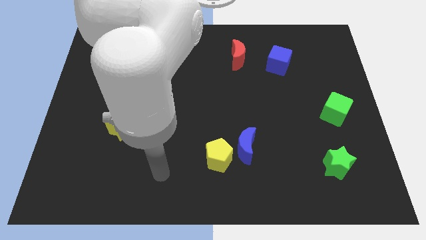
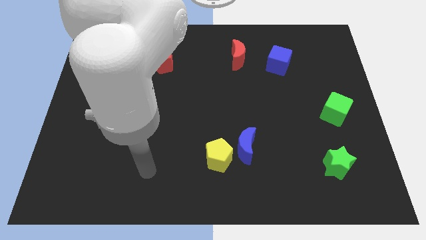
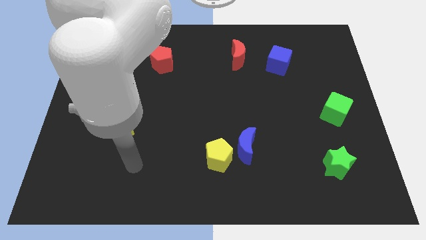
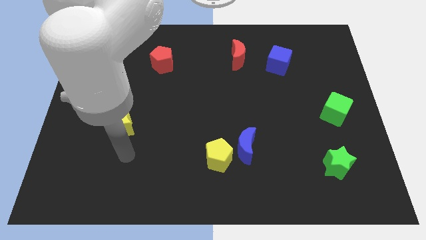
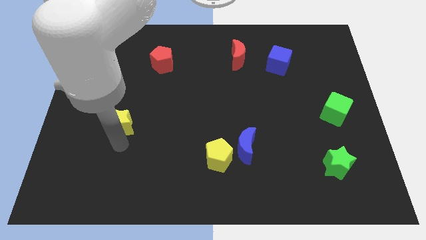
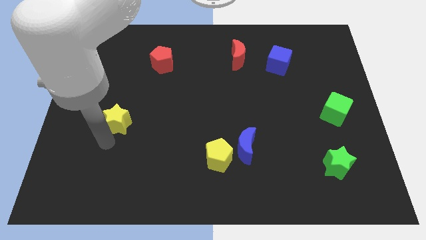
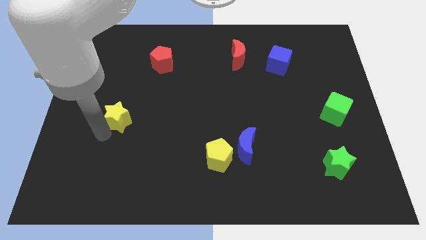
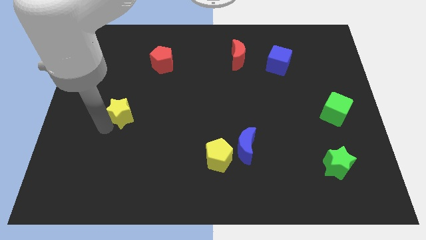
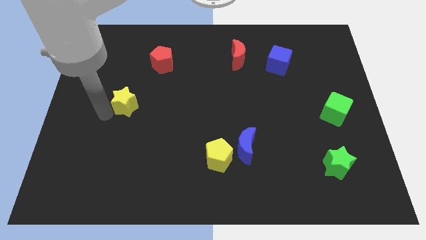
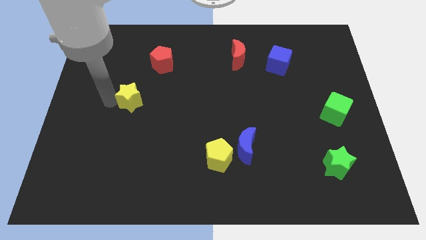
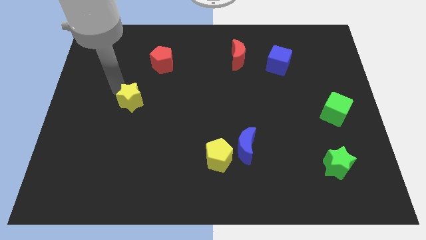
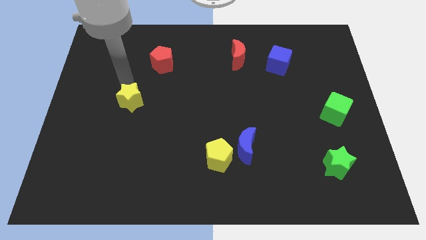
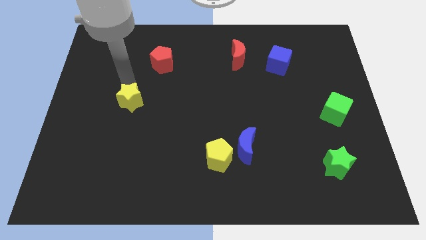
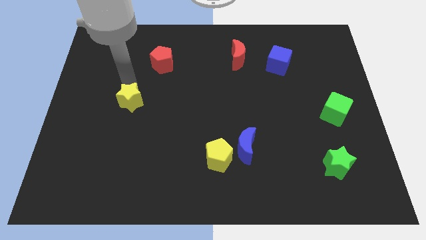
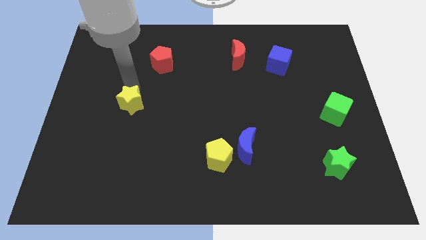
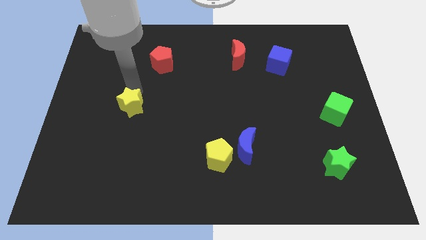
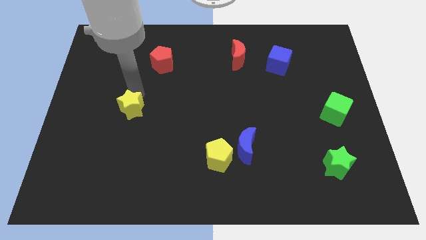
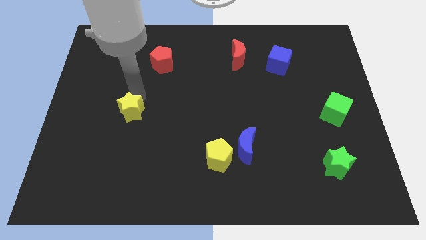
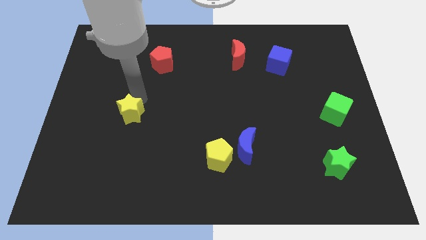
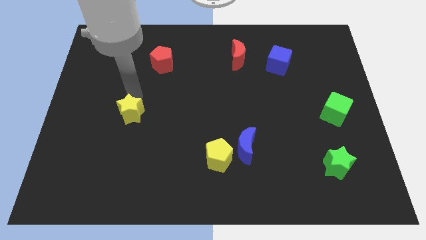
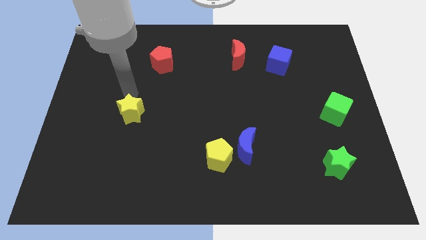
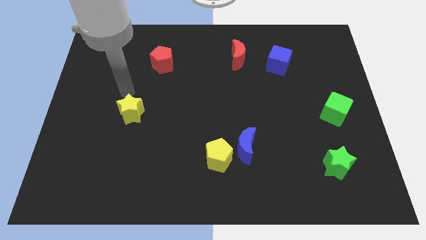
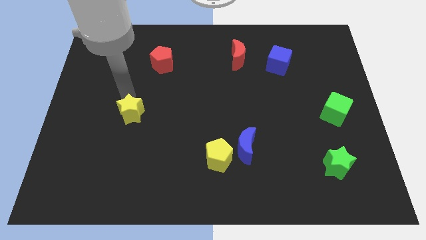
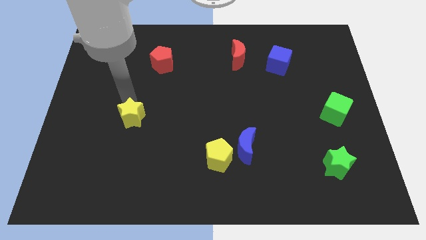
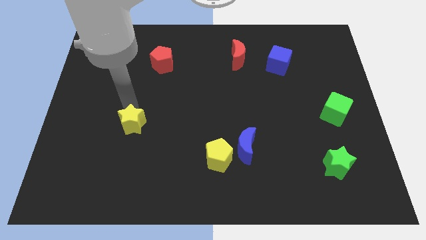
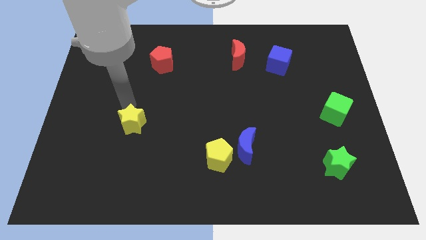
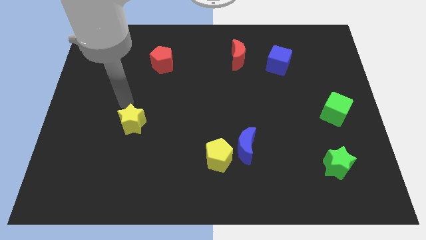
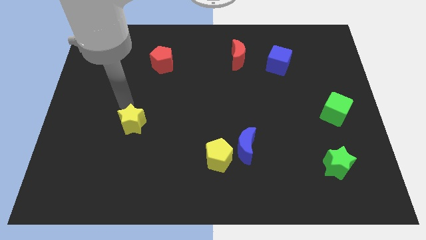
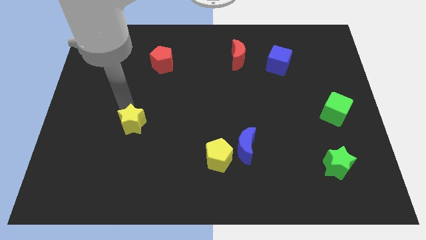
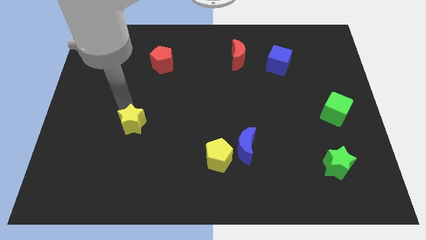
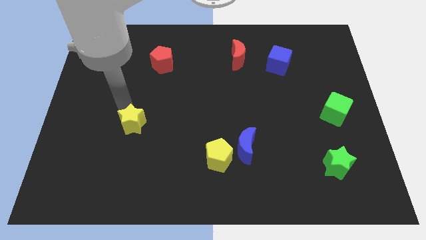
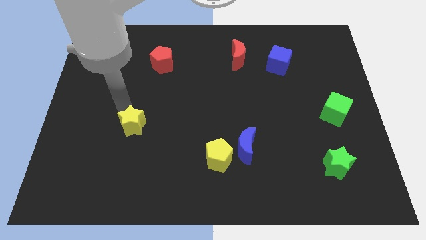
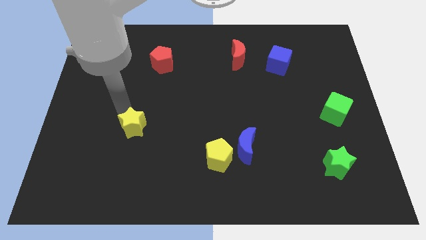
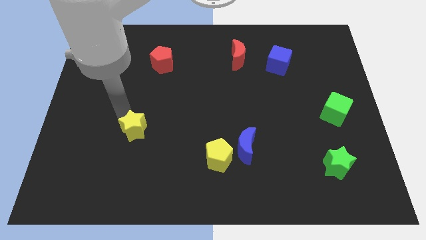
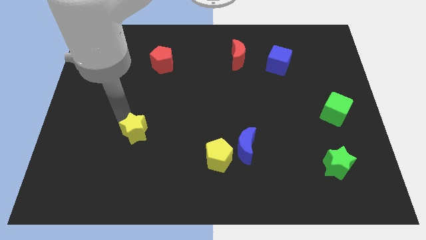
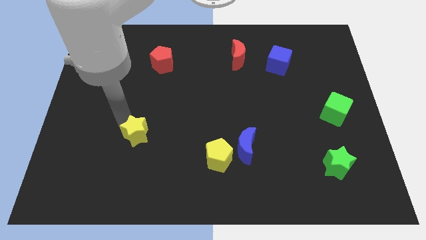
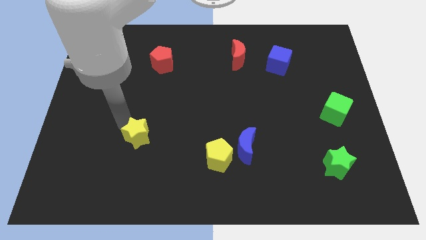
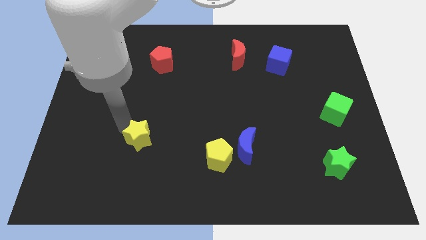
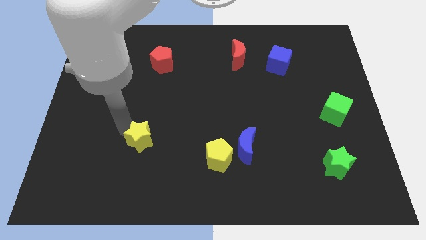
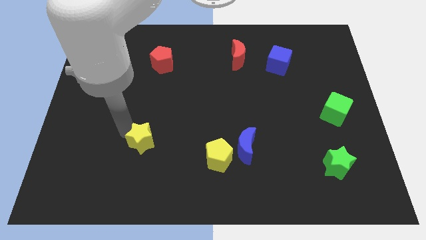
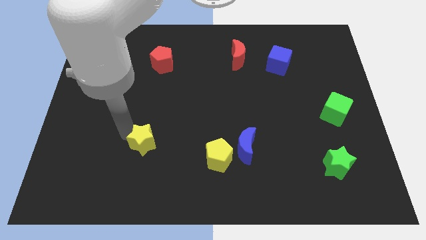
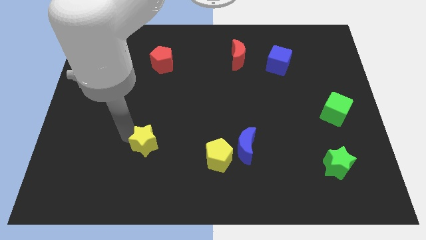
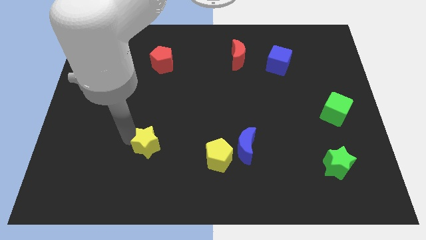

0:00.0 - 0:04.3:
move the yellow star diagonally down and right slightly

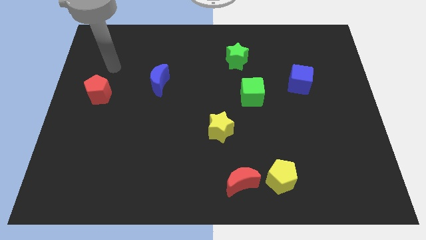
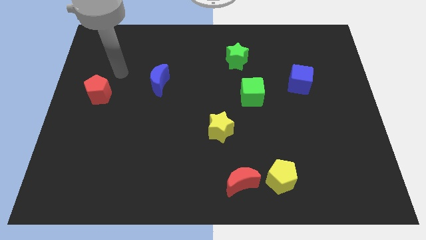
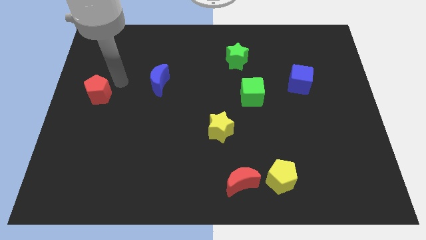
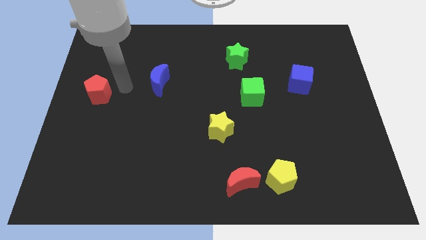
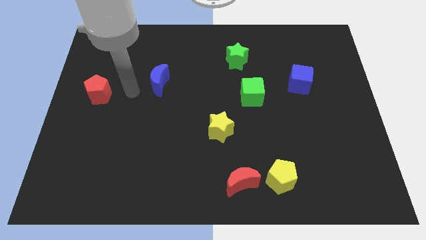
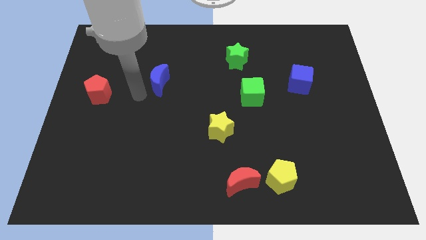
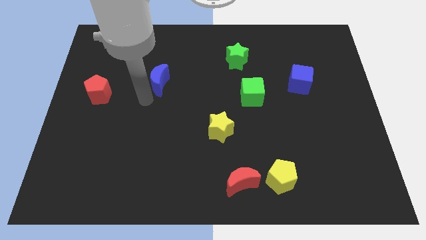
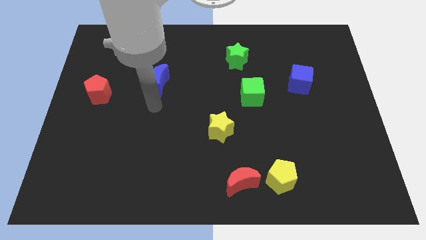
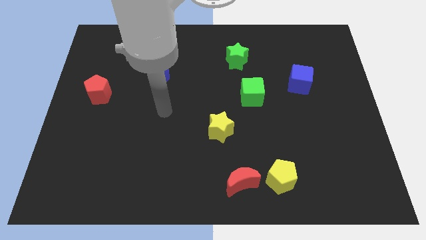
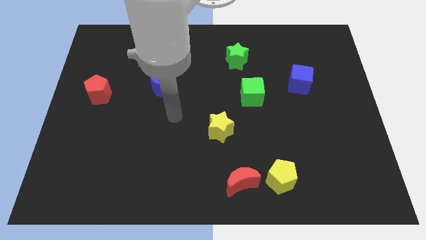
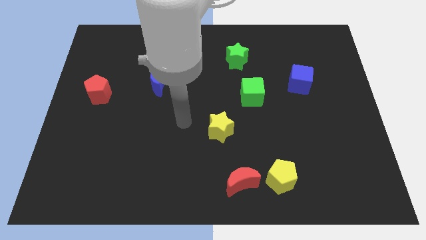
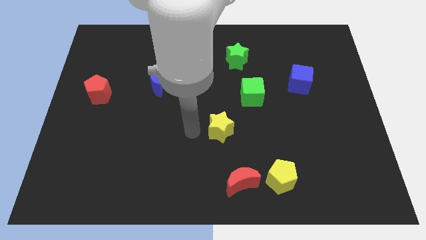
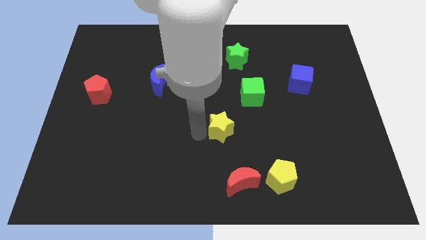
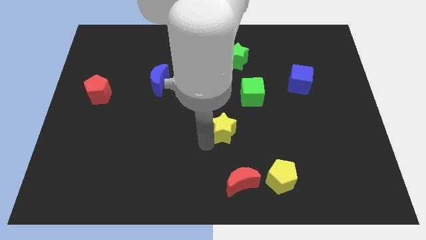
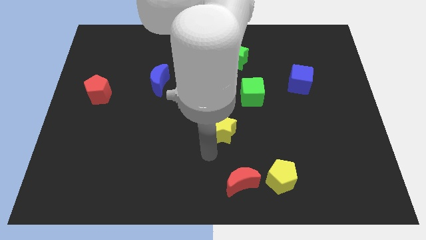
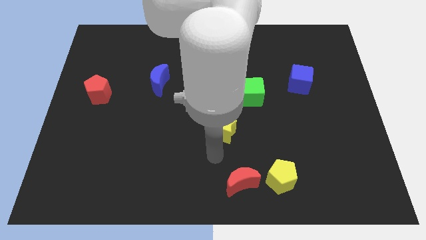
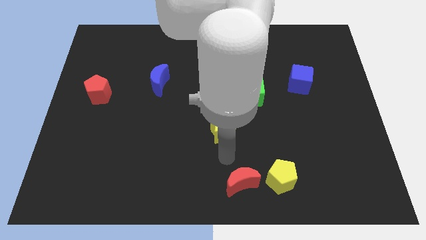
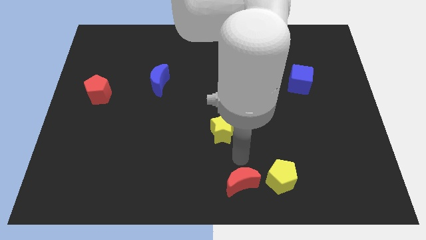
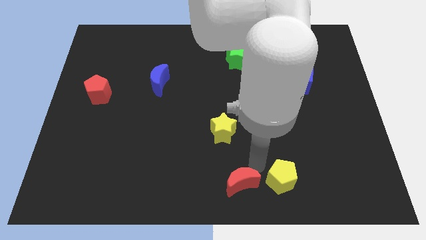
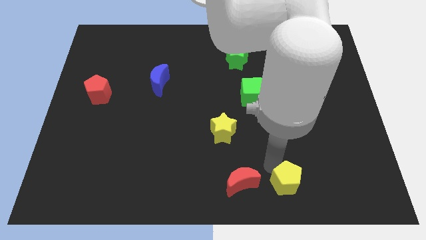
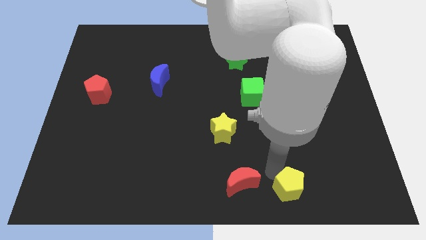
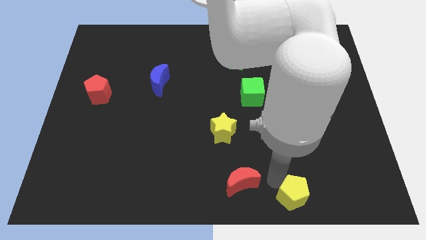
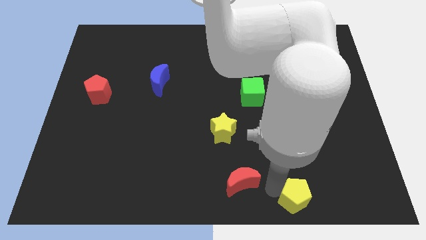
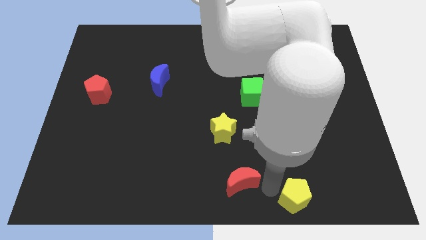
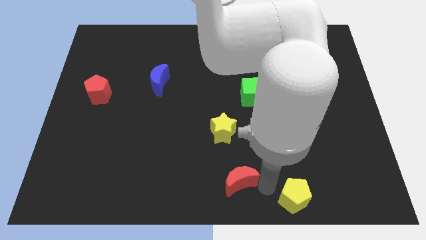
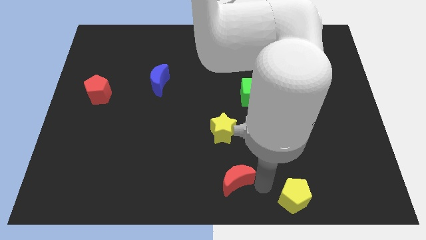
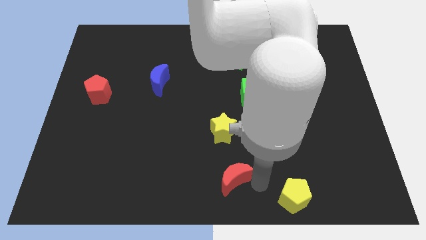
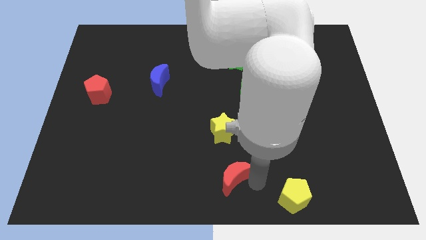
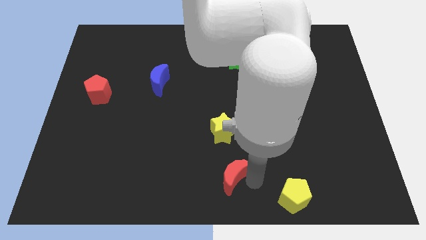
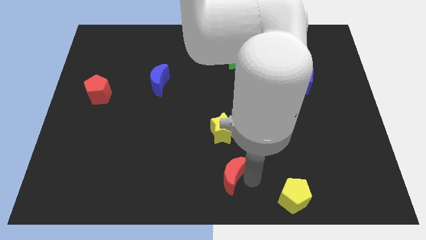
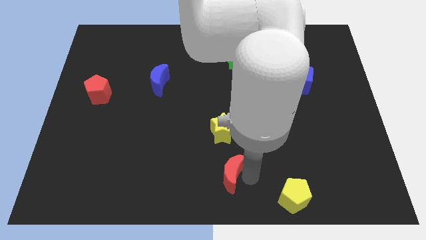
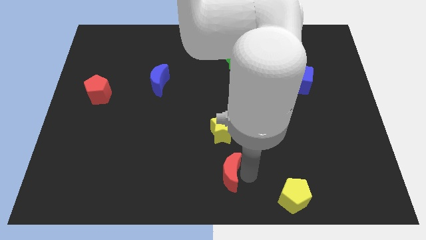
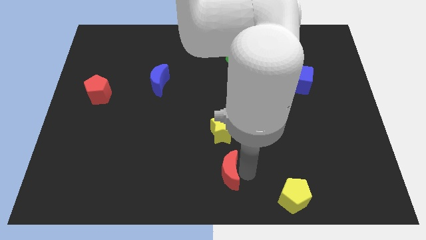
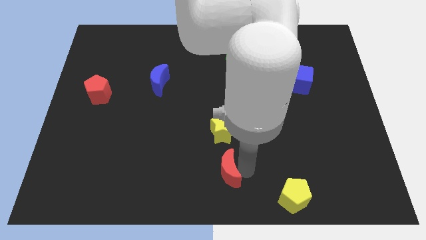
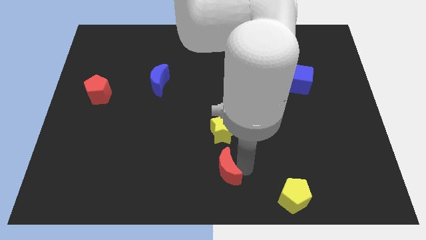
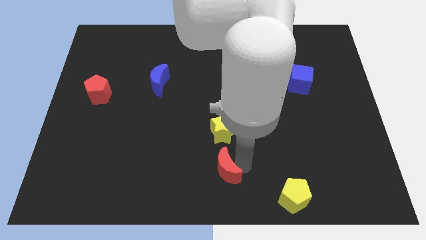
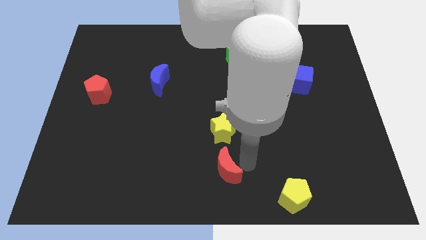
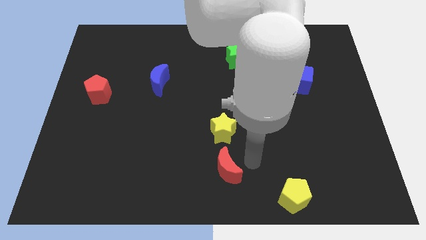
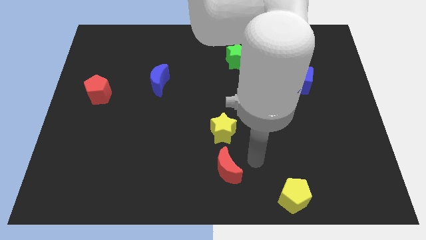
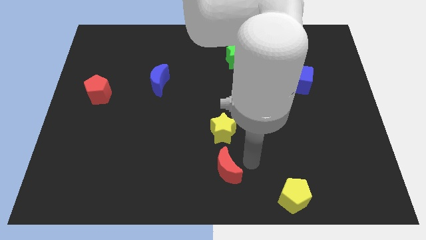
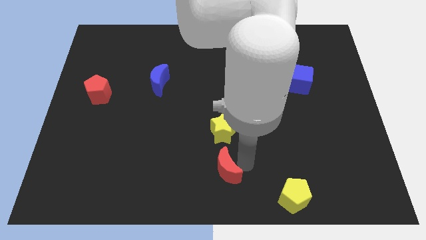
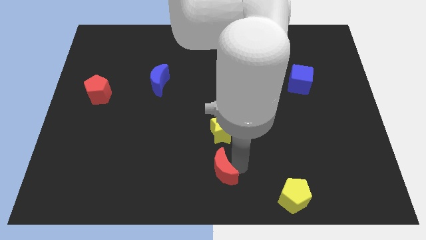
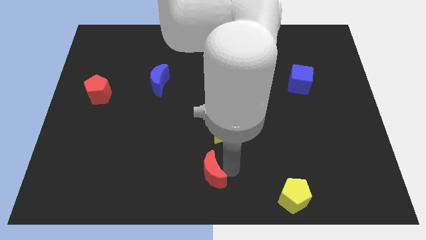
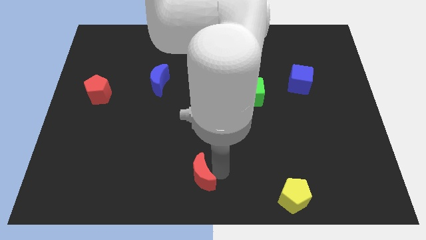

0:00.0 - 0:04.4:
slightly push the red moon to the left
